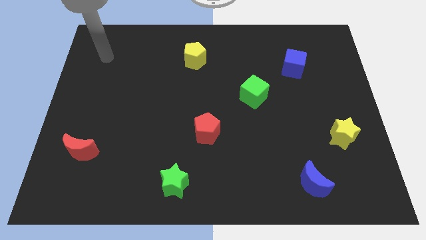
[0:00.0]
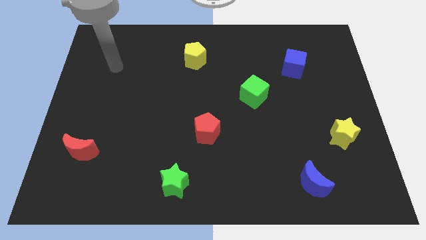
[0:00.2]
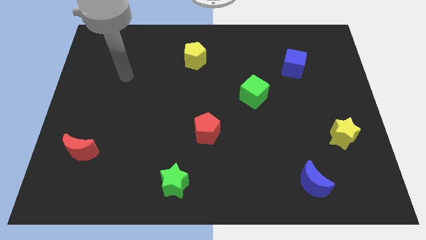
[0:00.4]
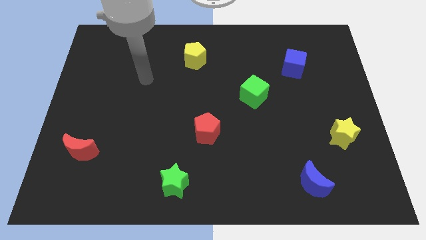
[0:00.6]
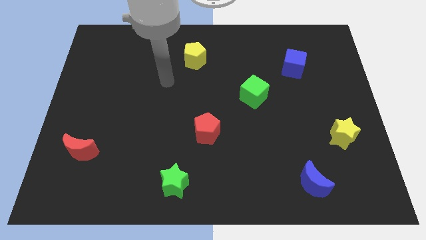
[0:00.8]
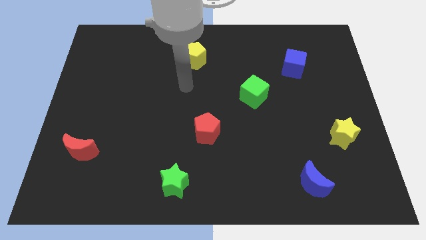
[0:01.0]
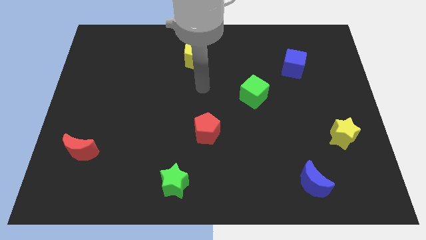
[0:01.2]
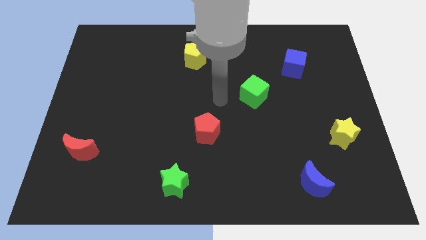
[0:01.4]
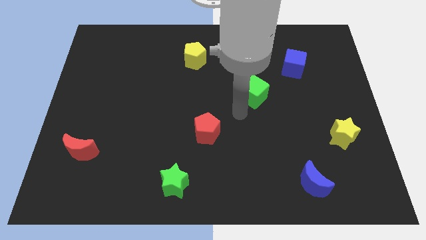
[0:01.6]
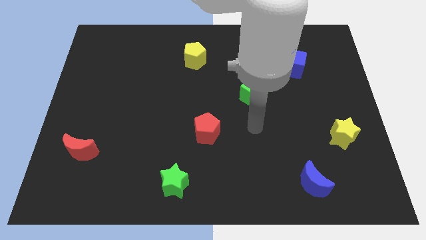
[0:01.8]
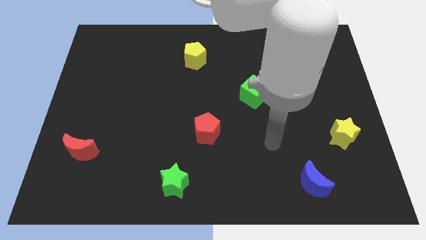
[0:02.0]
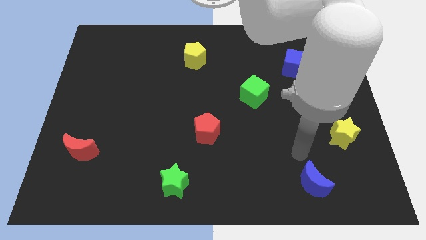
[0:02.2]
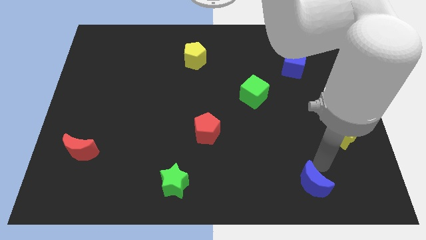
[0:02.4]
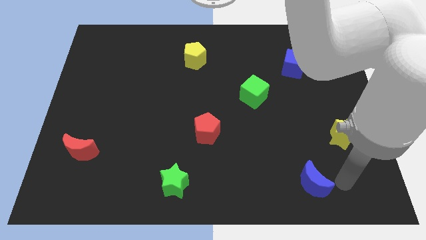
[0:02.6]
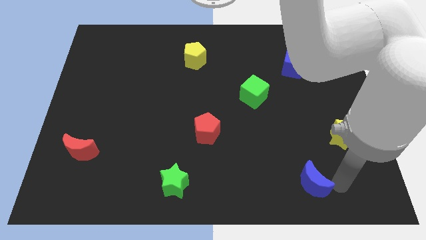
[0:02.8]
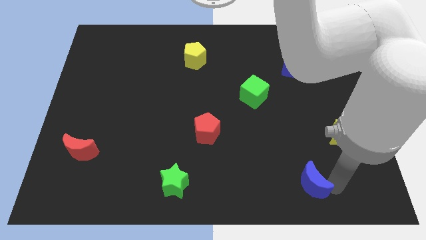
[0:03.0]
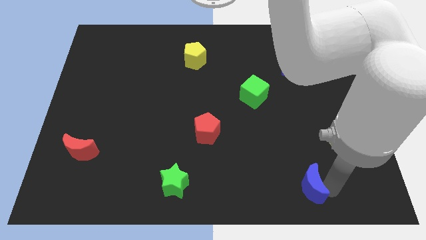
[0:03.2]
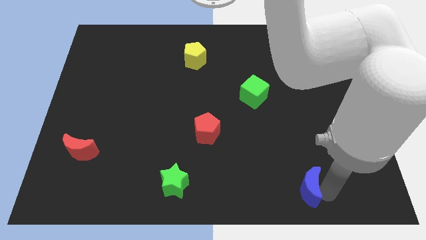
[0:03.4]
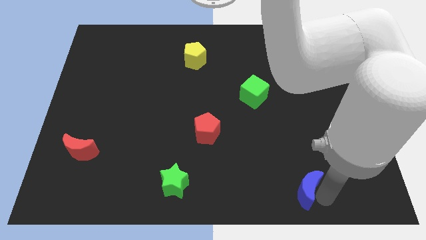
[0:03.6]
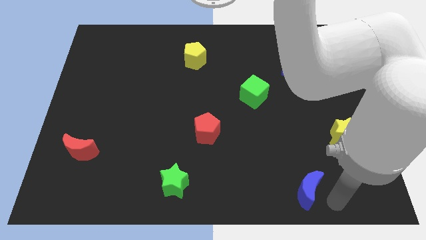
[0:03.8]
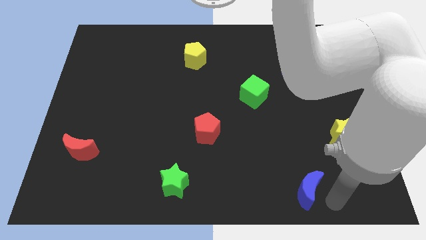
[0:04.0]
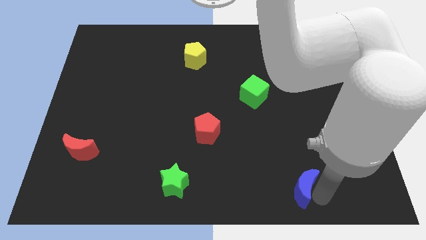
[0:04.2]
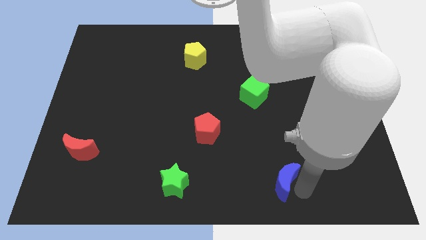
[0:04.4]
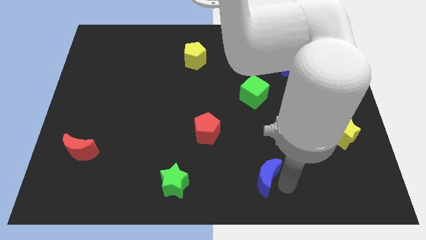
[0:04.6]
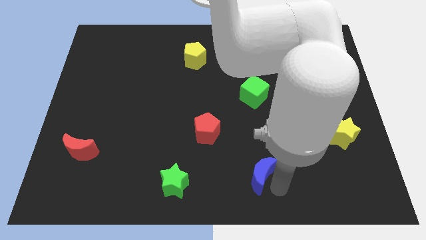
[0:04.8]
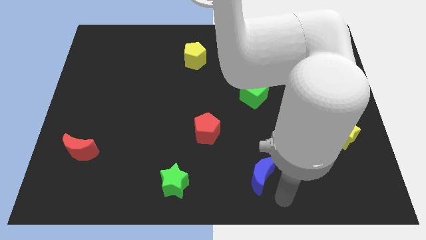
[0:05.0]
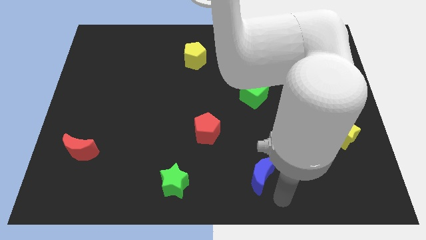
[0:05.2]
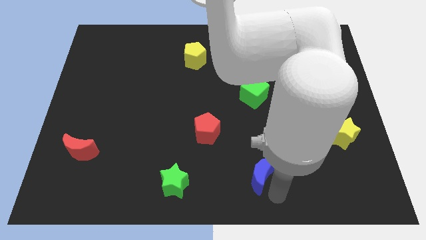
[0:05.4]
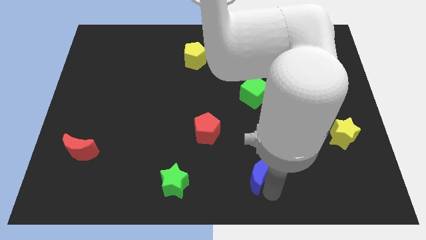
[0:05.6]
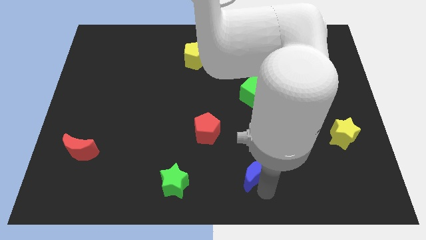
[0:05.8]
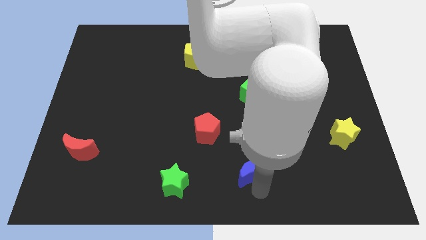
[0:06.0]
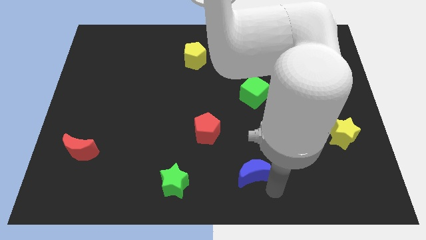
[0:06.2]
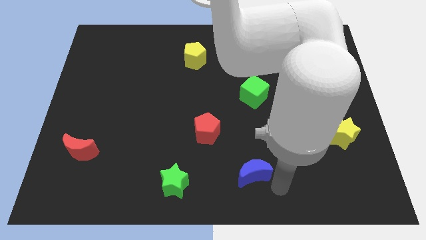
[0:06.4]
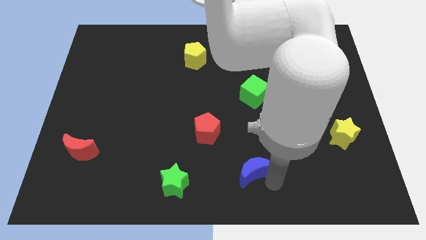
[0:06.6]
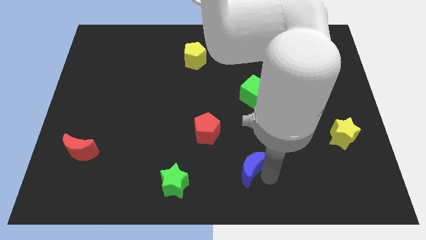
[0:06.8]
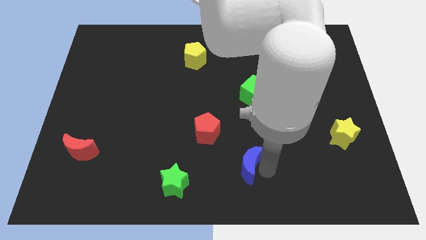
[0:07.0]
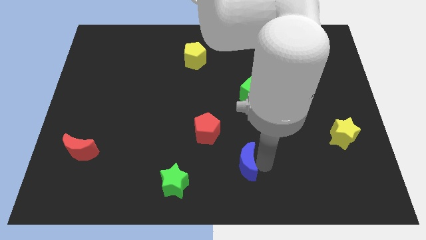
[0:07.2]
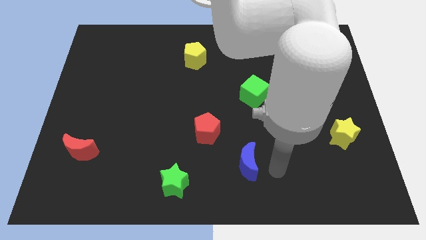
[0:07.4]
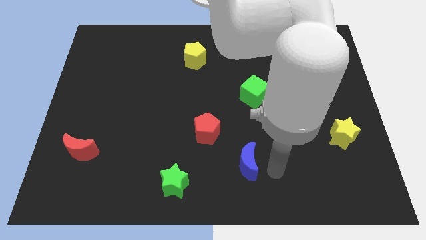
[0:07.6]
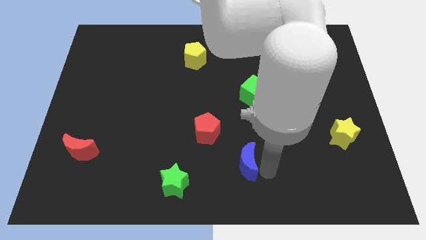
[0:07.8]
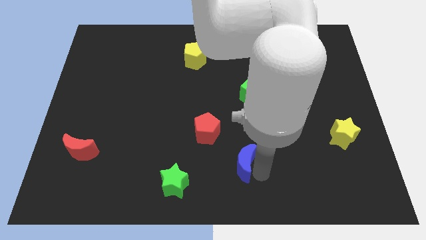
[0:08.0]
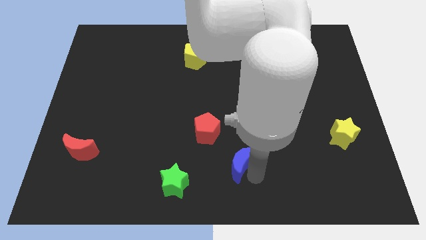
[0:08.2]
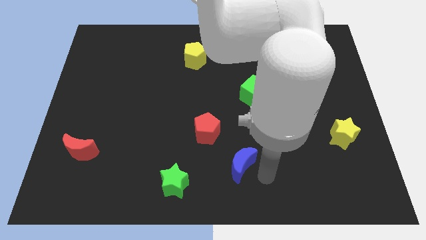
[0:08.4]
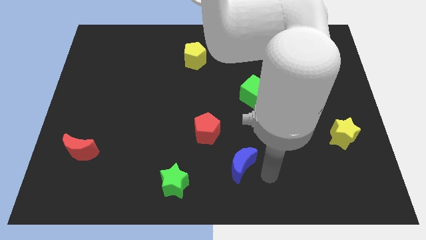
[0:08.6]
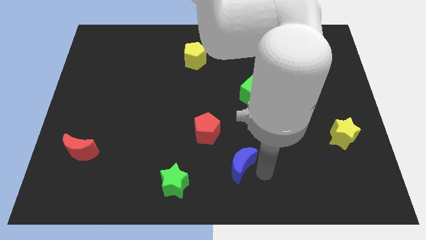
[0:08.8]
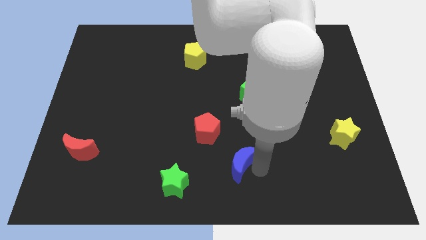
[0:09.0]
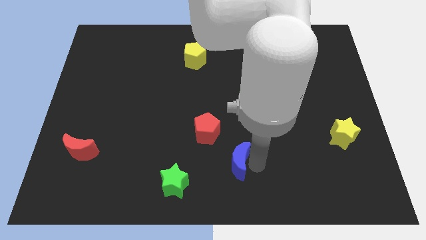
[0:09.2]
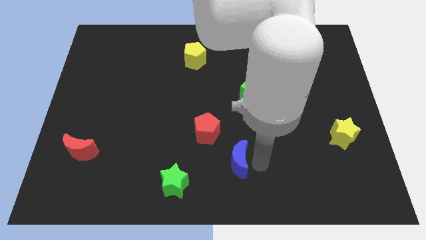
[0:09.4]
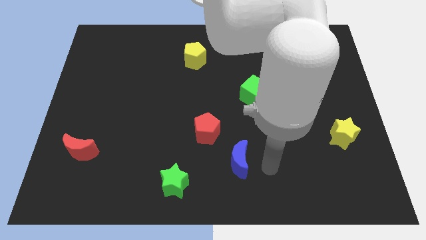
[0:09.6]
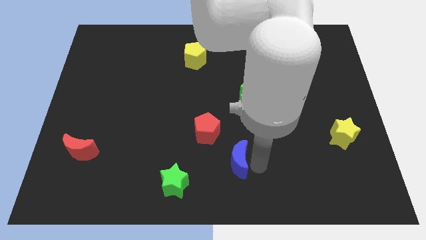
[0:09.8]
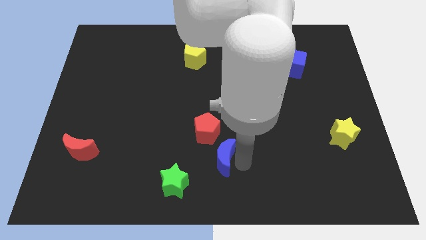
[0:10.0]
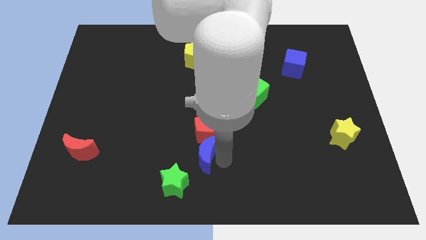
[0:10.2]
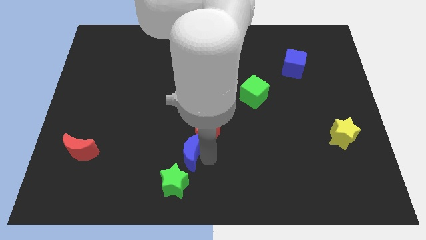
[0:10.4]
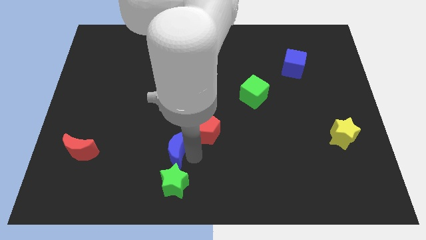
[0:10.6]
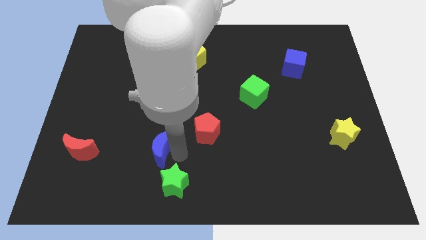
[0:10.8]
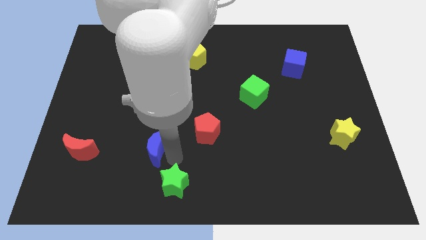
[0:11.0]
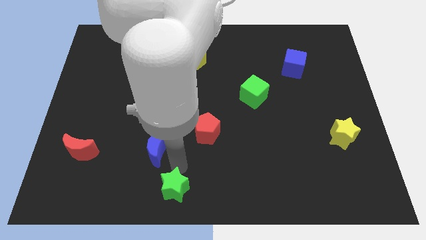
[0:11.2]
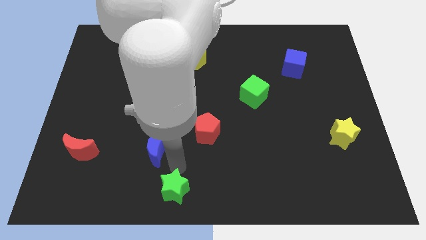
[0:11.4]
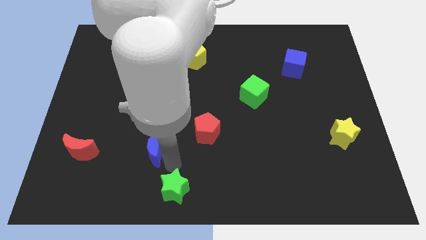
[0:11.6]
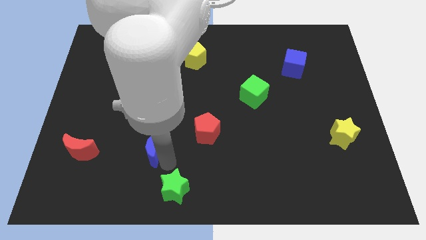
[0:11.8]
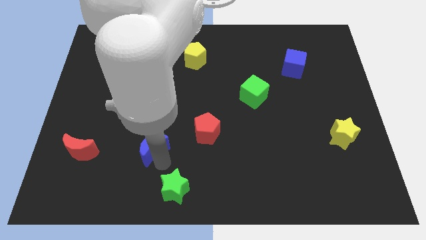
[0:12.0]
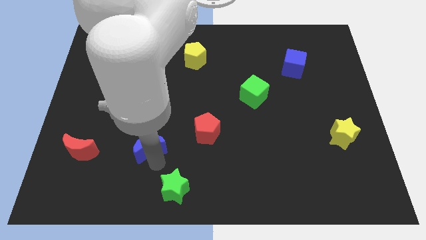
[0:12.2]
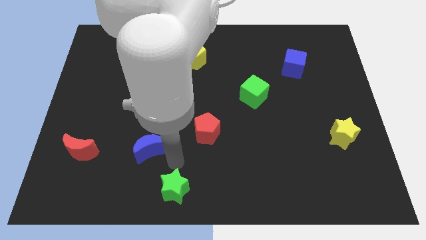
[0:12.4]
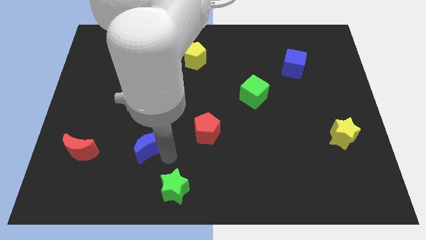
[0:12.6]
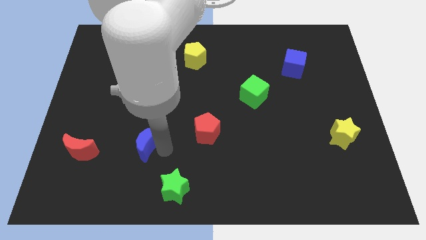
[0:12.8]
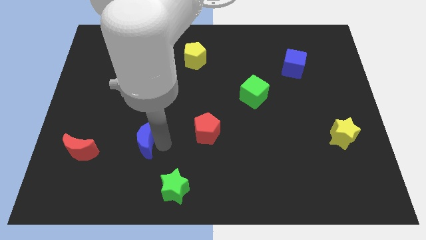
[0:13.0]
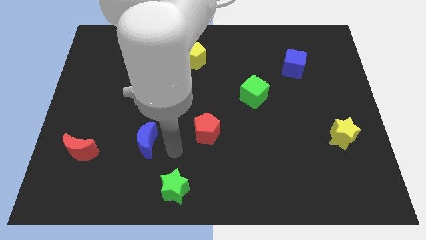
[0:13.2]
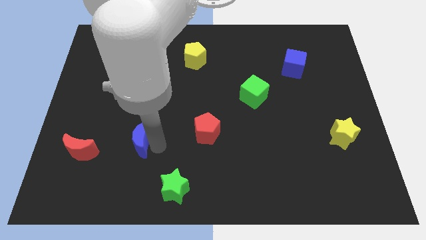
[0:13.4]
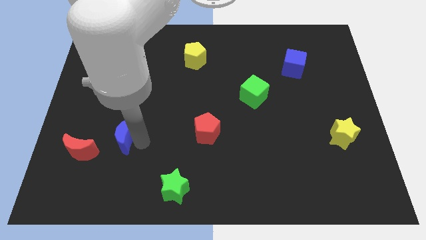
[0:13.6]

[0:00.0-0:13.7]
slide the blue moon to the top right of the red moon
